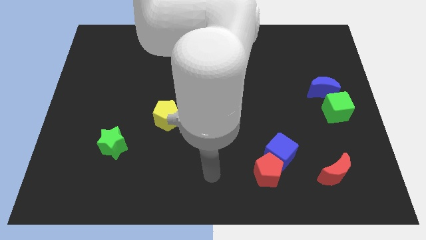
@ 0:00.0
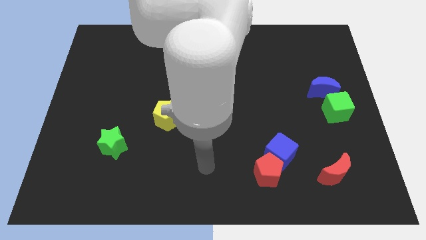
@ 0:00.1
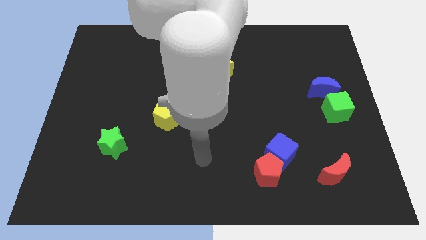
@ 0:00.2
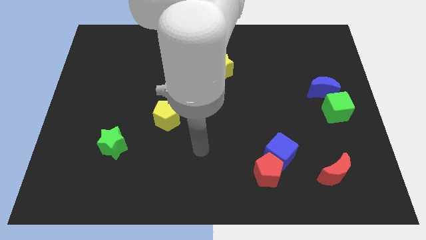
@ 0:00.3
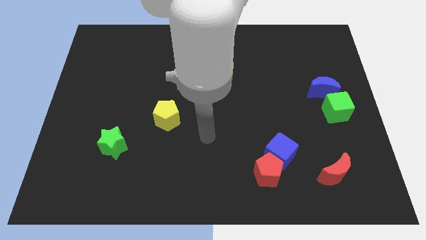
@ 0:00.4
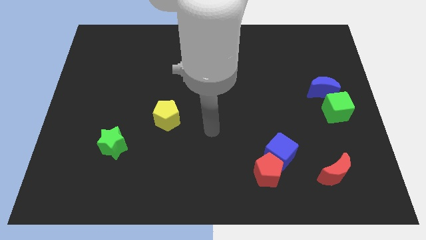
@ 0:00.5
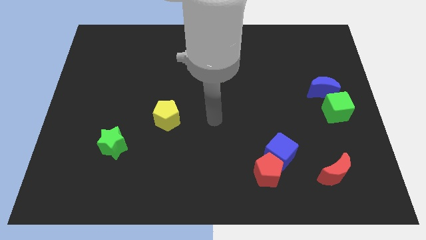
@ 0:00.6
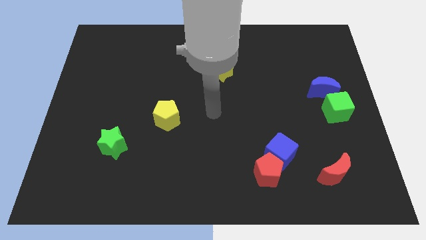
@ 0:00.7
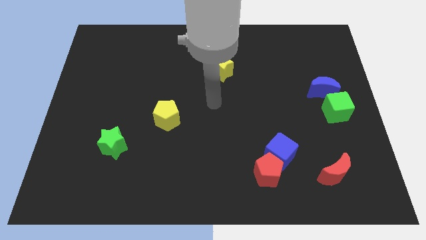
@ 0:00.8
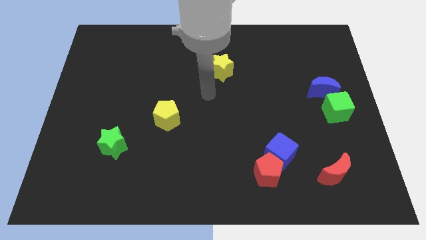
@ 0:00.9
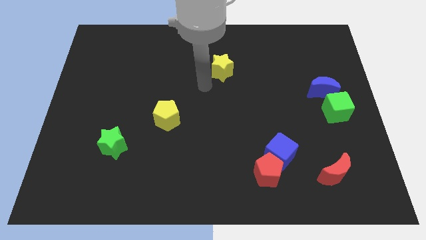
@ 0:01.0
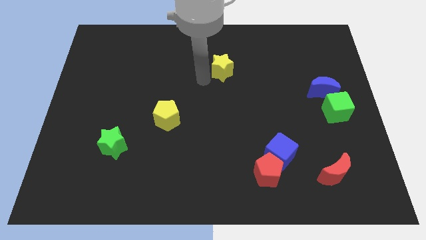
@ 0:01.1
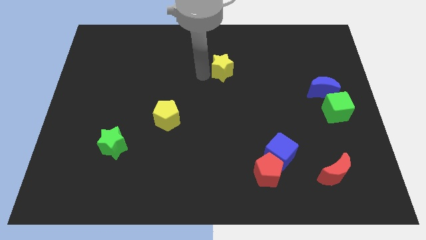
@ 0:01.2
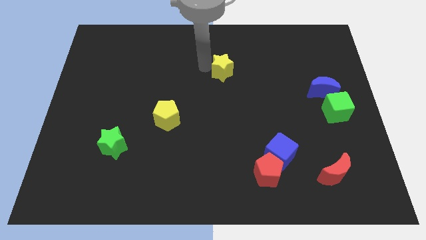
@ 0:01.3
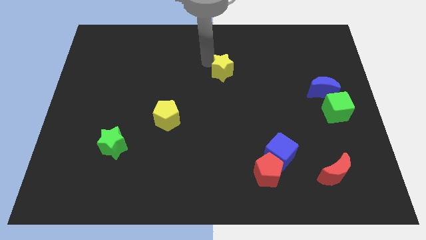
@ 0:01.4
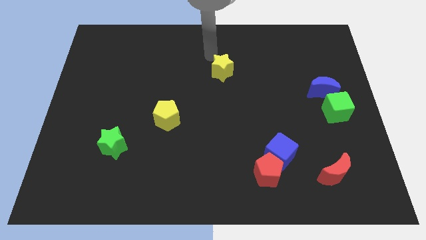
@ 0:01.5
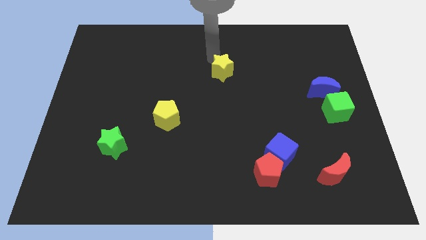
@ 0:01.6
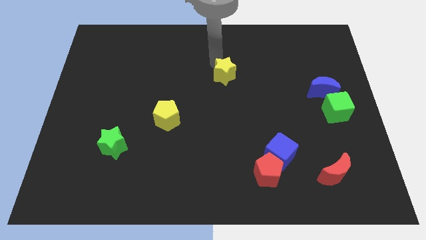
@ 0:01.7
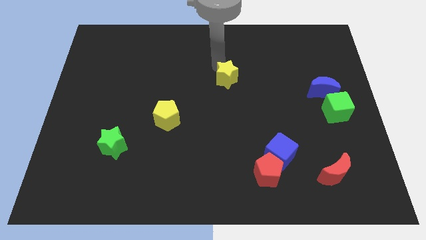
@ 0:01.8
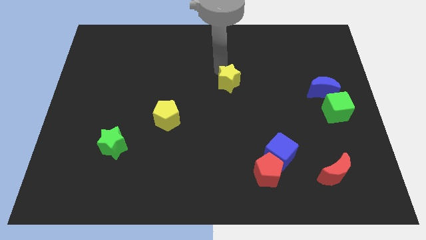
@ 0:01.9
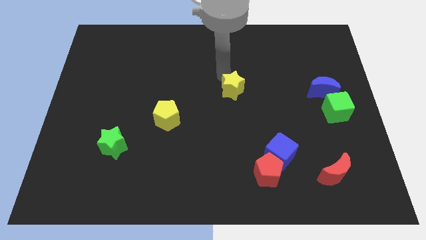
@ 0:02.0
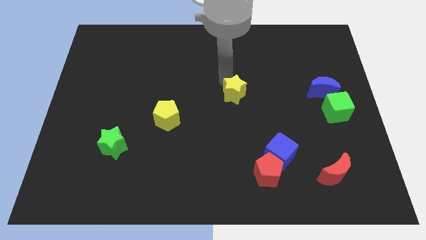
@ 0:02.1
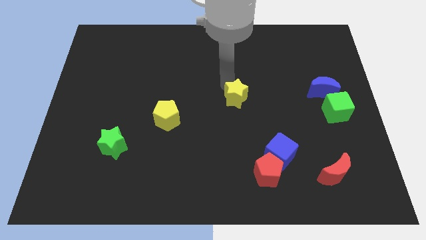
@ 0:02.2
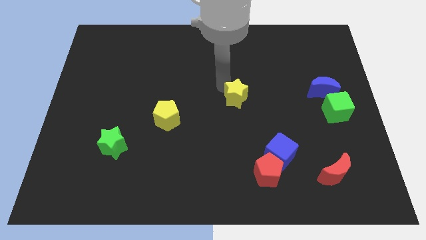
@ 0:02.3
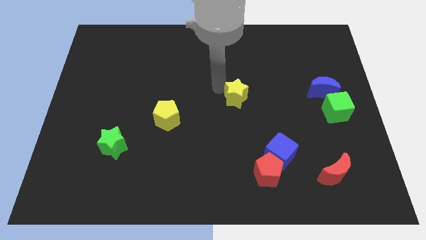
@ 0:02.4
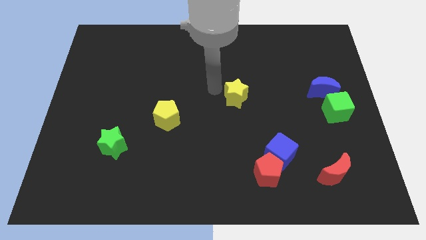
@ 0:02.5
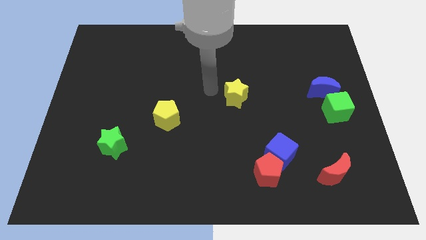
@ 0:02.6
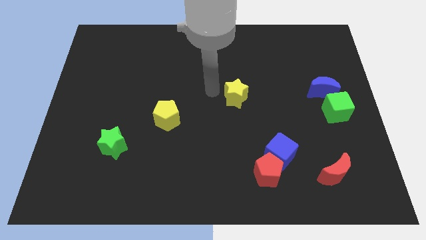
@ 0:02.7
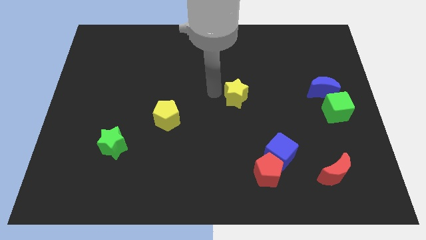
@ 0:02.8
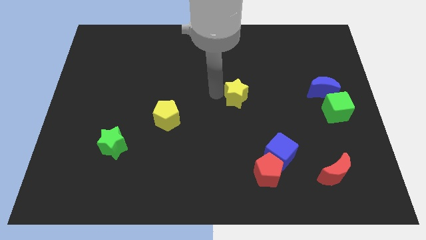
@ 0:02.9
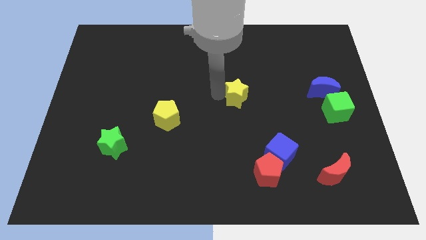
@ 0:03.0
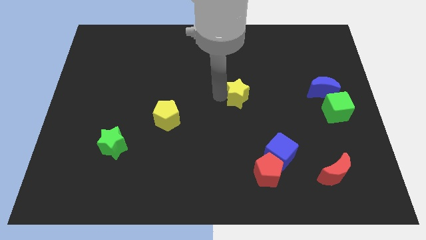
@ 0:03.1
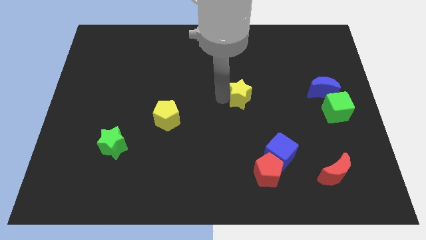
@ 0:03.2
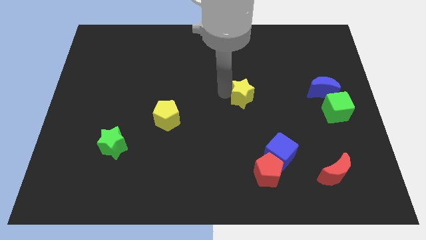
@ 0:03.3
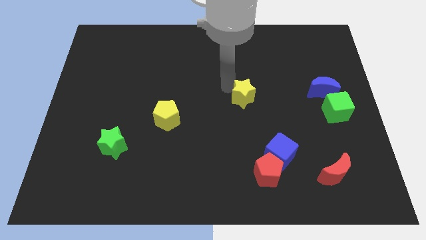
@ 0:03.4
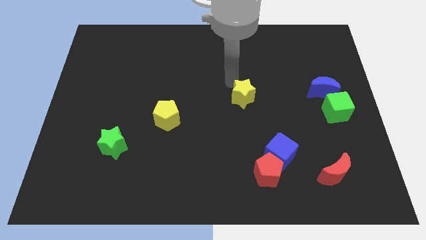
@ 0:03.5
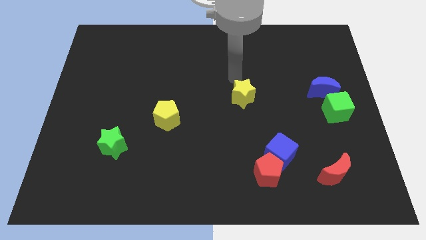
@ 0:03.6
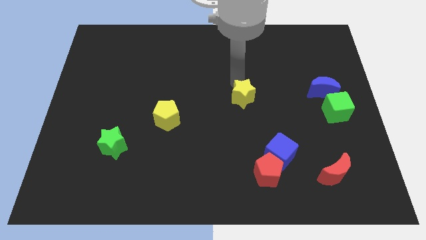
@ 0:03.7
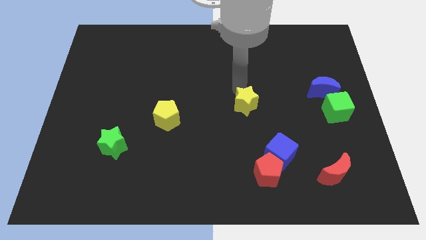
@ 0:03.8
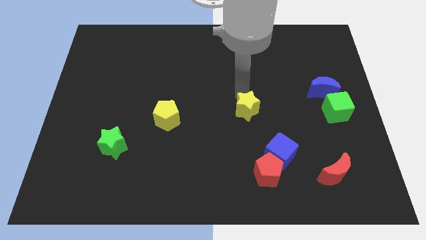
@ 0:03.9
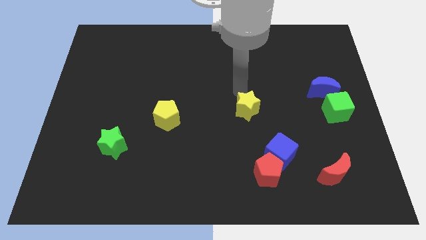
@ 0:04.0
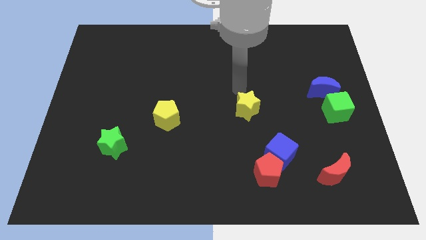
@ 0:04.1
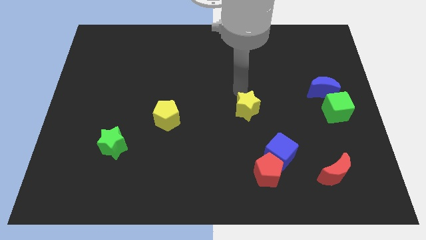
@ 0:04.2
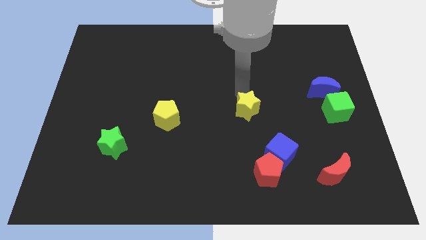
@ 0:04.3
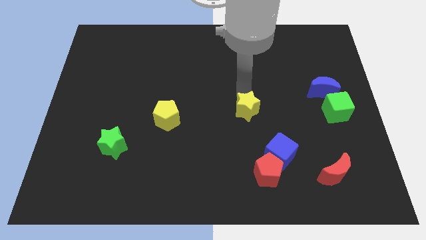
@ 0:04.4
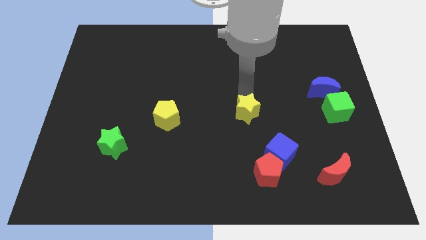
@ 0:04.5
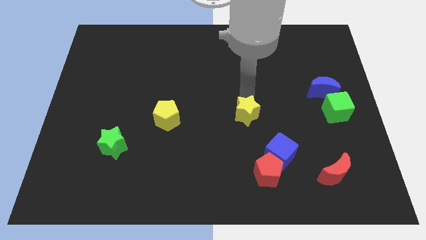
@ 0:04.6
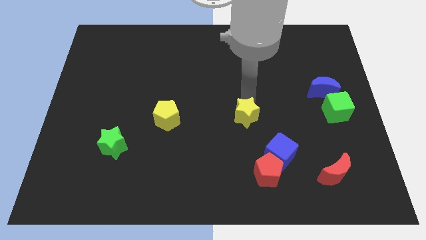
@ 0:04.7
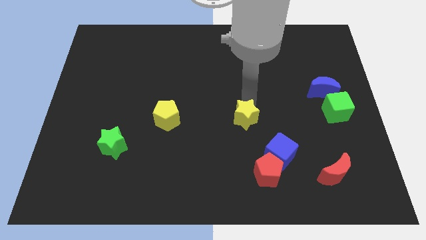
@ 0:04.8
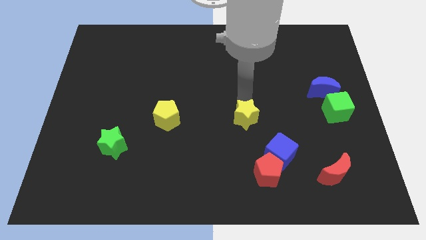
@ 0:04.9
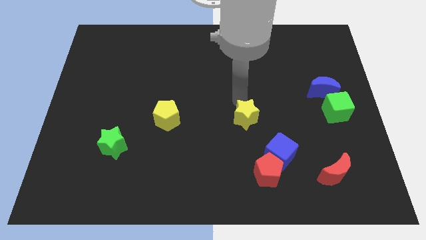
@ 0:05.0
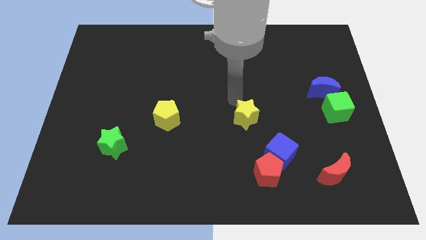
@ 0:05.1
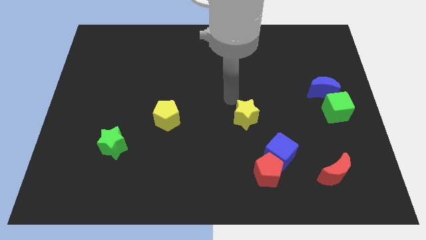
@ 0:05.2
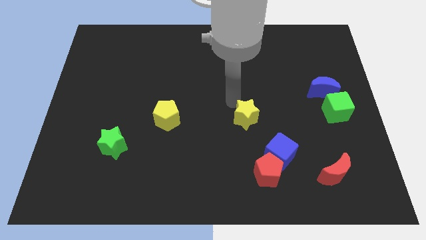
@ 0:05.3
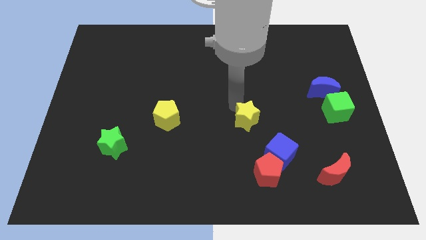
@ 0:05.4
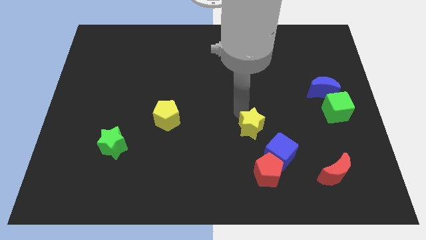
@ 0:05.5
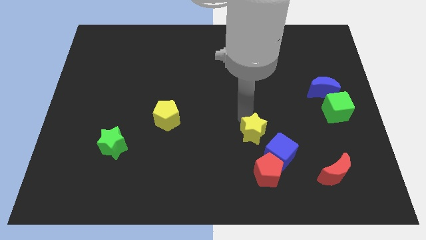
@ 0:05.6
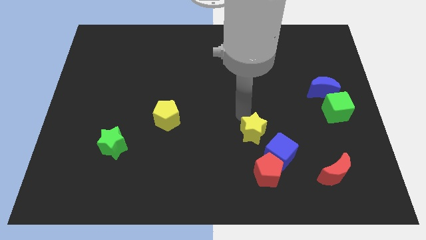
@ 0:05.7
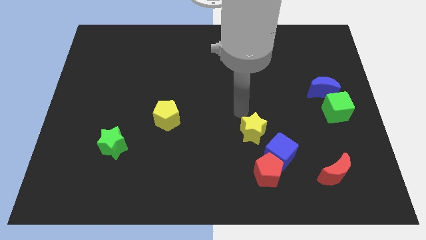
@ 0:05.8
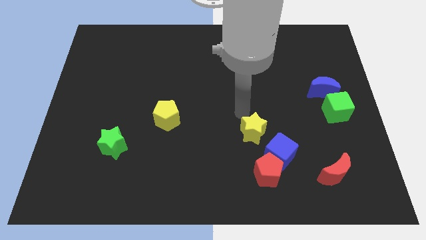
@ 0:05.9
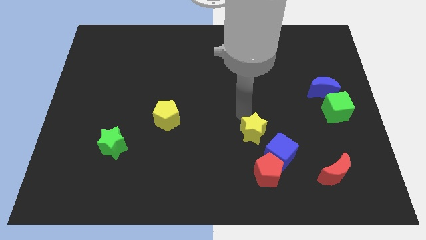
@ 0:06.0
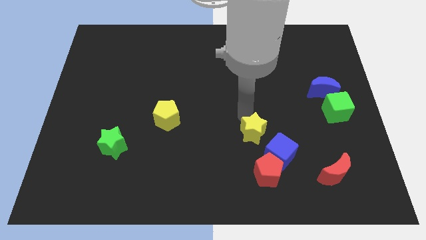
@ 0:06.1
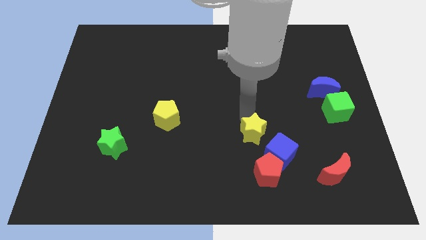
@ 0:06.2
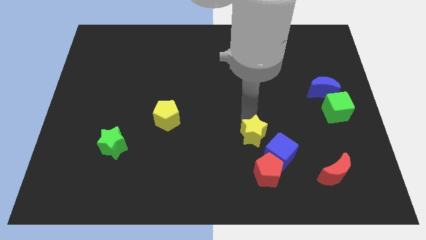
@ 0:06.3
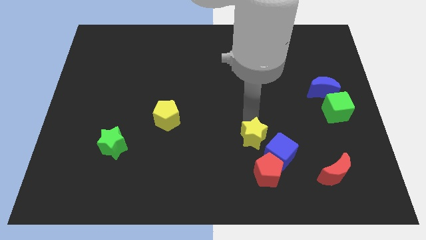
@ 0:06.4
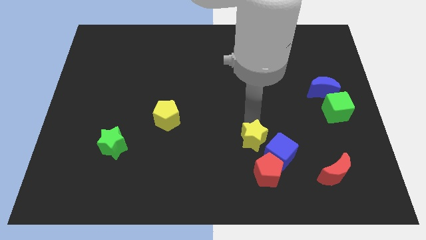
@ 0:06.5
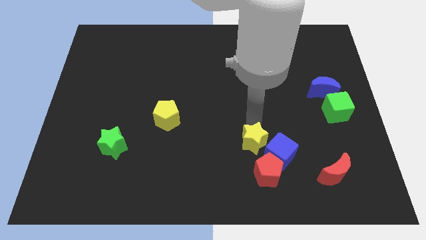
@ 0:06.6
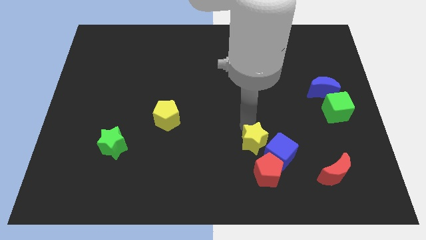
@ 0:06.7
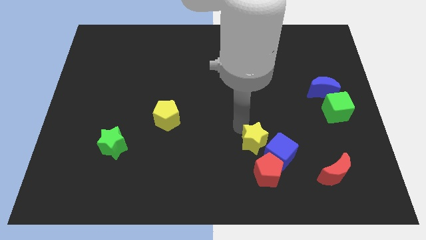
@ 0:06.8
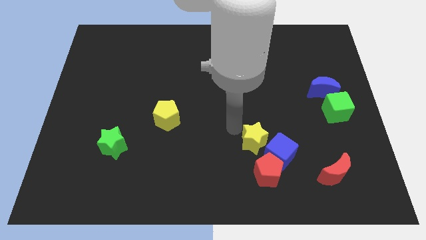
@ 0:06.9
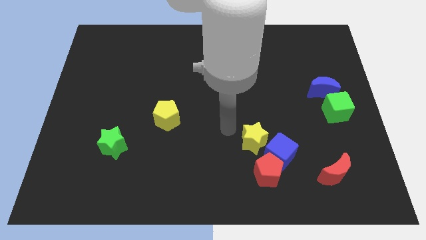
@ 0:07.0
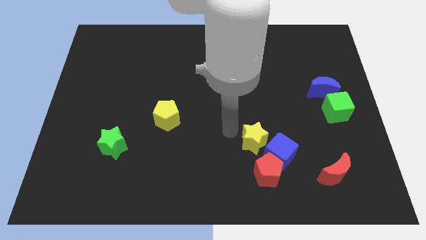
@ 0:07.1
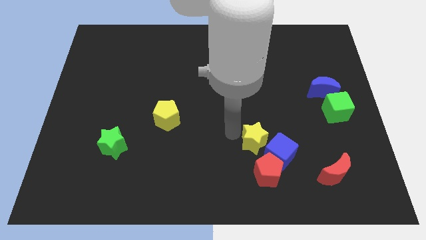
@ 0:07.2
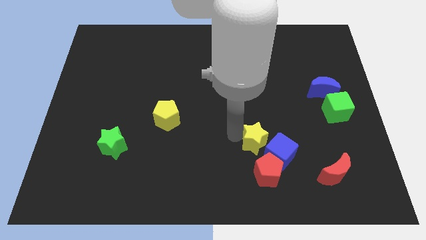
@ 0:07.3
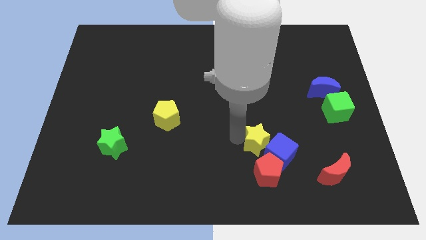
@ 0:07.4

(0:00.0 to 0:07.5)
move the yellow star next to the blue cube
